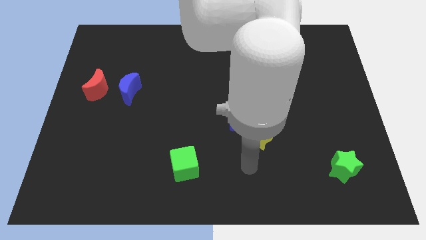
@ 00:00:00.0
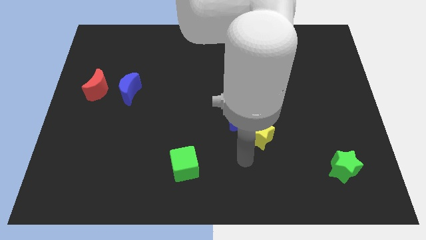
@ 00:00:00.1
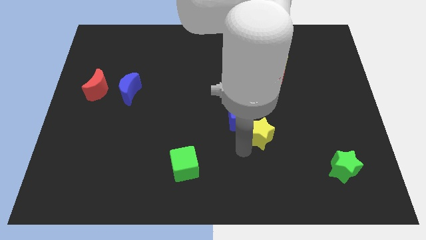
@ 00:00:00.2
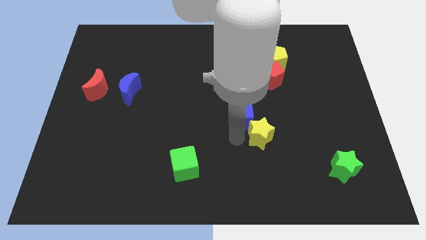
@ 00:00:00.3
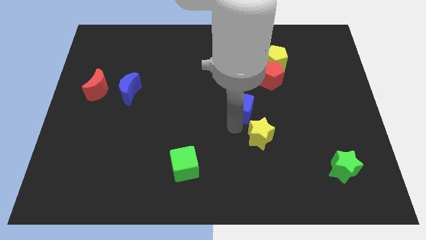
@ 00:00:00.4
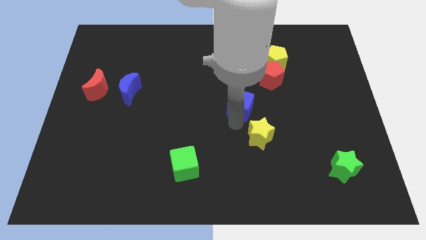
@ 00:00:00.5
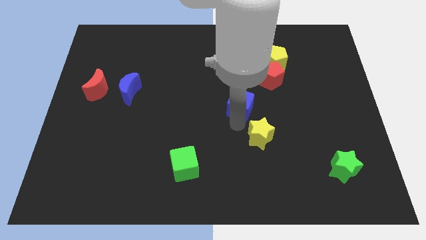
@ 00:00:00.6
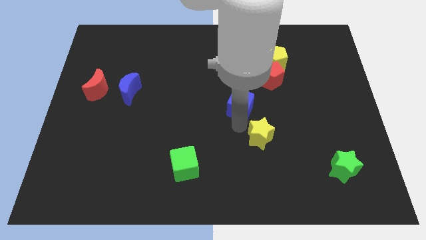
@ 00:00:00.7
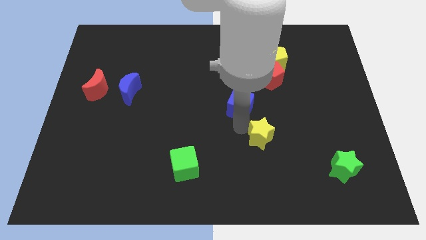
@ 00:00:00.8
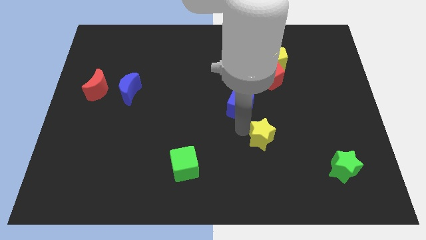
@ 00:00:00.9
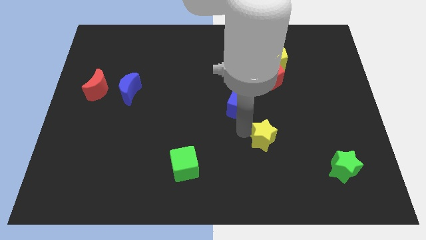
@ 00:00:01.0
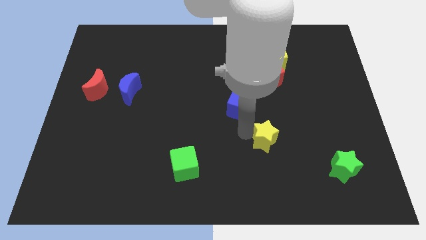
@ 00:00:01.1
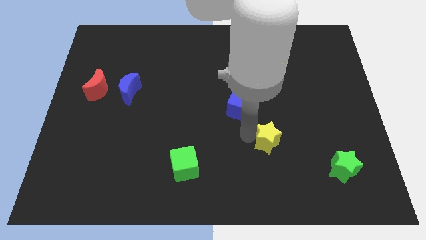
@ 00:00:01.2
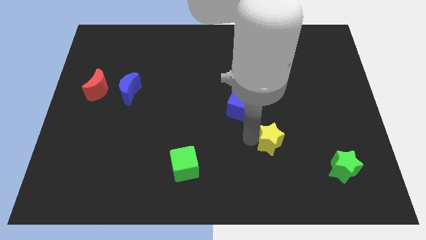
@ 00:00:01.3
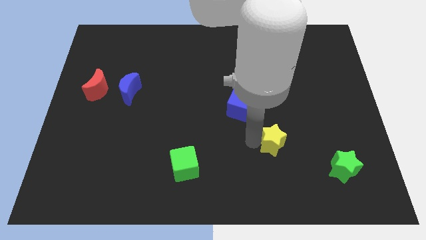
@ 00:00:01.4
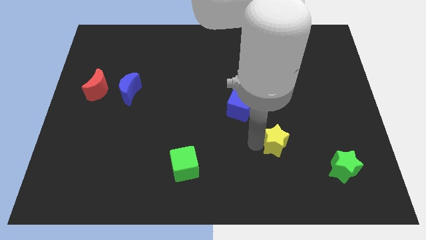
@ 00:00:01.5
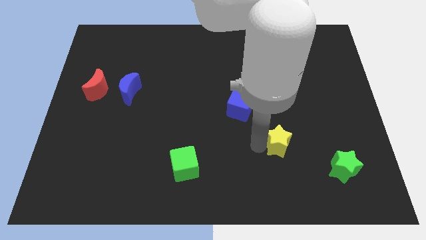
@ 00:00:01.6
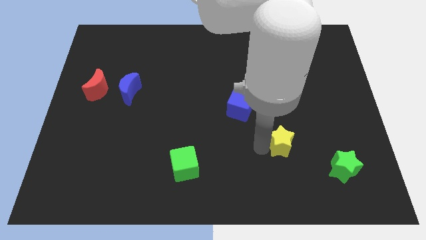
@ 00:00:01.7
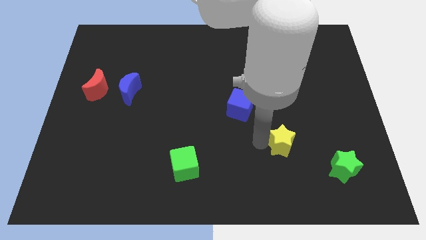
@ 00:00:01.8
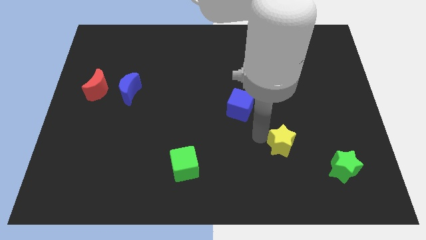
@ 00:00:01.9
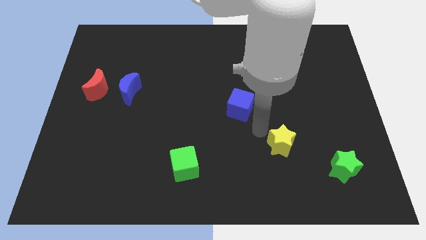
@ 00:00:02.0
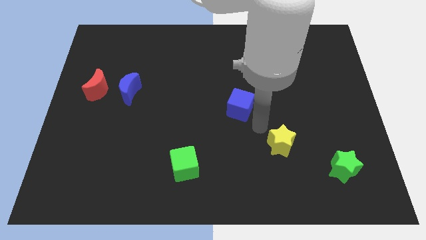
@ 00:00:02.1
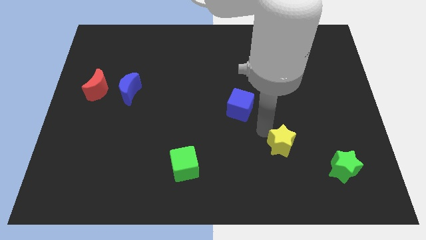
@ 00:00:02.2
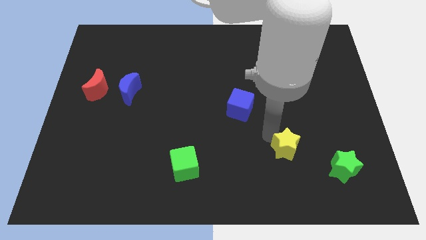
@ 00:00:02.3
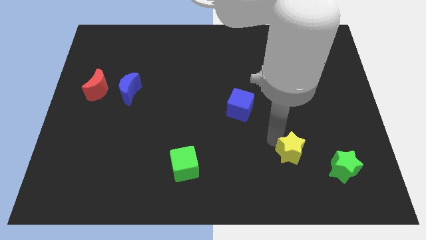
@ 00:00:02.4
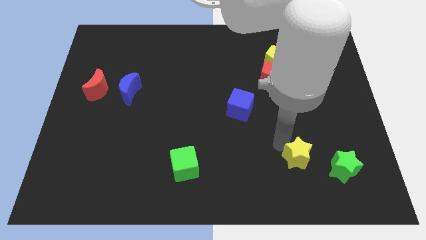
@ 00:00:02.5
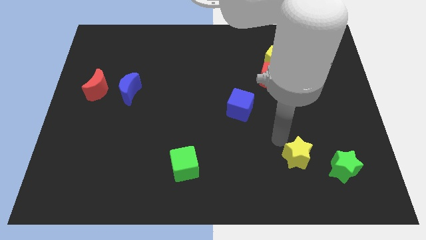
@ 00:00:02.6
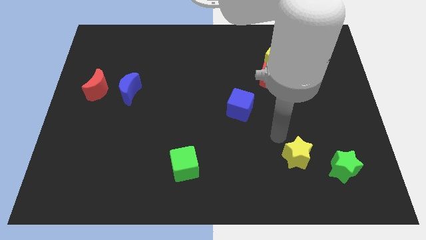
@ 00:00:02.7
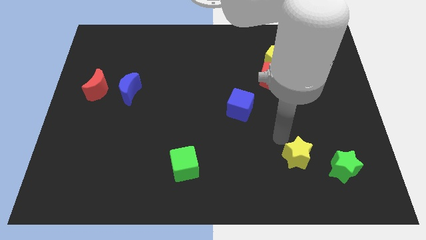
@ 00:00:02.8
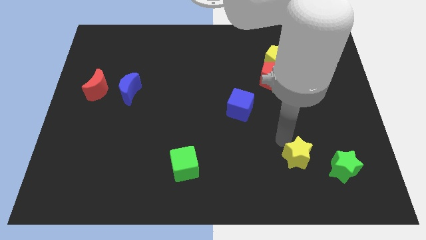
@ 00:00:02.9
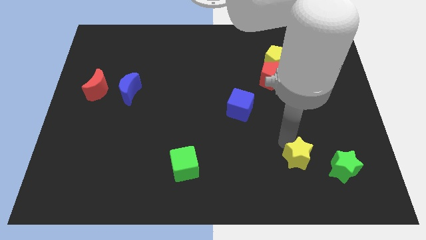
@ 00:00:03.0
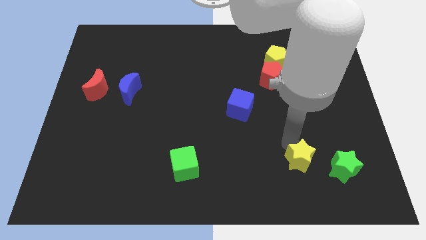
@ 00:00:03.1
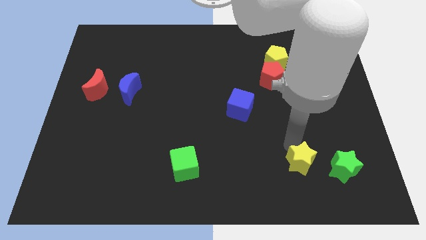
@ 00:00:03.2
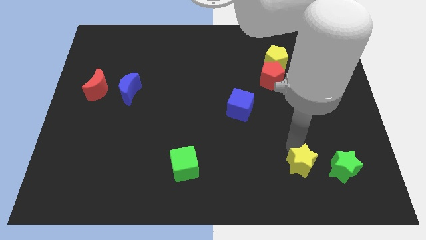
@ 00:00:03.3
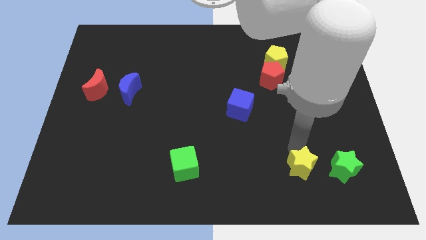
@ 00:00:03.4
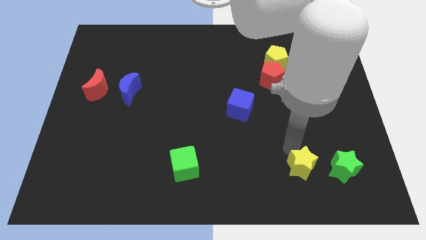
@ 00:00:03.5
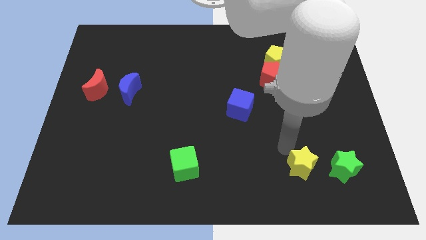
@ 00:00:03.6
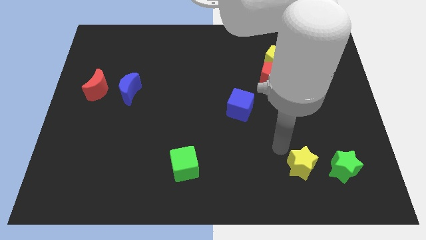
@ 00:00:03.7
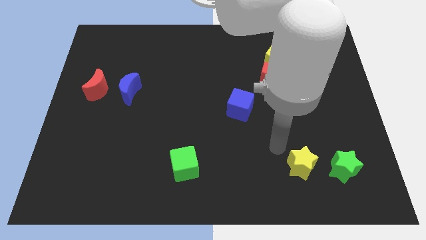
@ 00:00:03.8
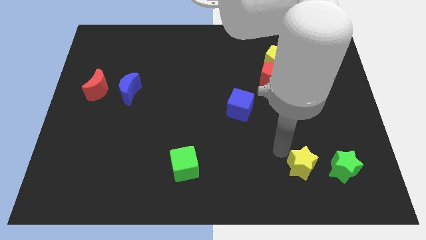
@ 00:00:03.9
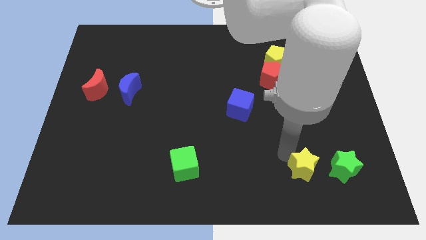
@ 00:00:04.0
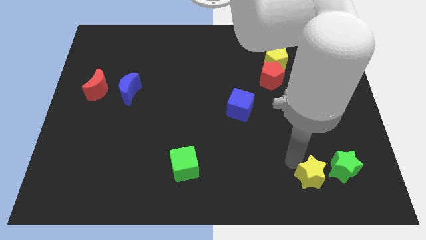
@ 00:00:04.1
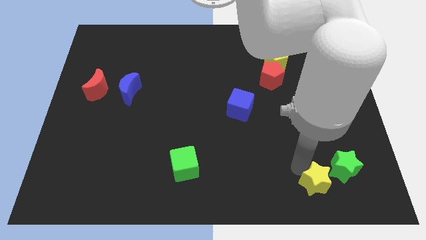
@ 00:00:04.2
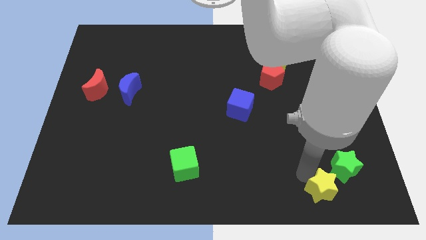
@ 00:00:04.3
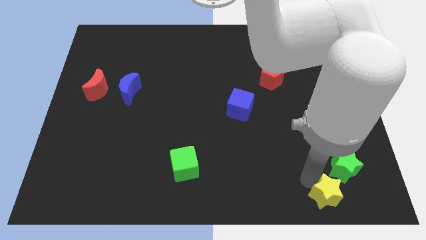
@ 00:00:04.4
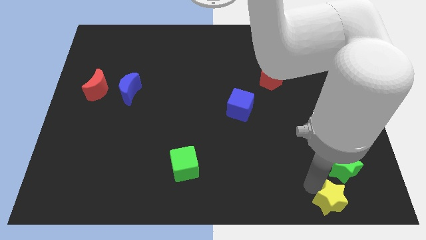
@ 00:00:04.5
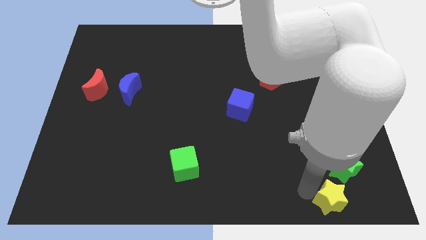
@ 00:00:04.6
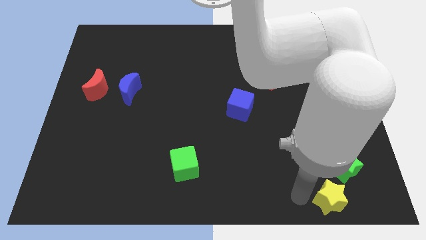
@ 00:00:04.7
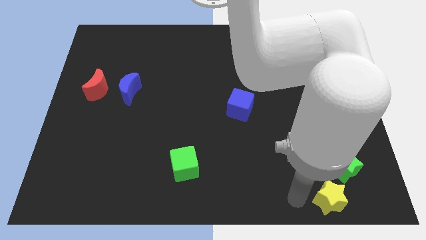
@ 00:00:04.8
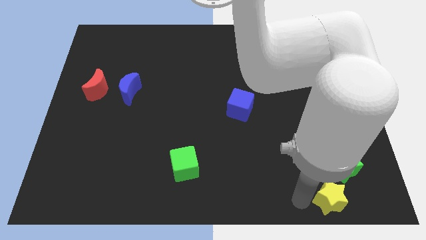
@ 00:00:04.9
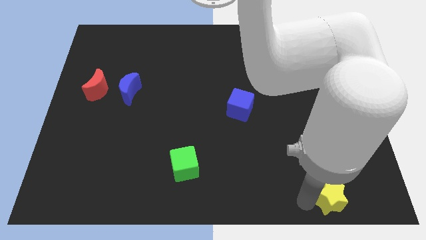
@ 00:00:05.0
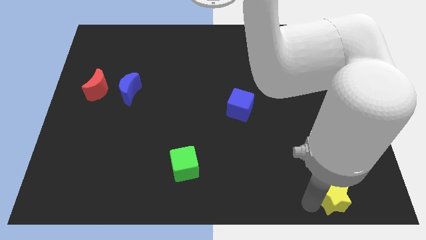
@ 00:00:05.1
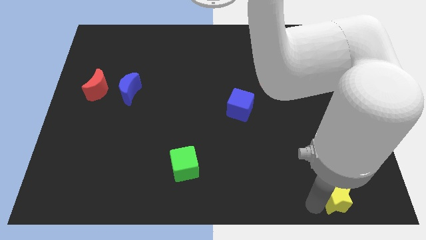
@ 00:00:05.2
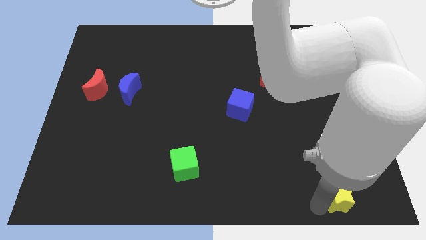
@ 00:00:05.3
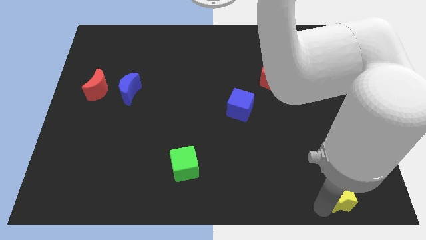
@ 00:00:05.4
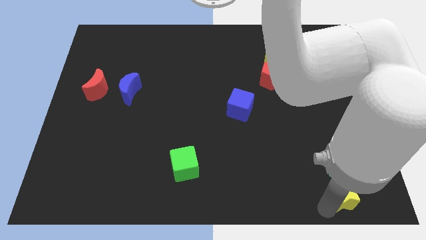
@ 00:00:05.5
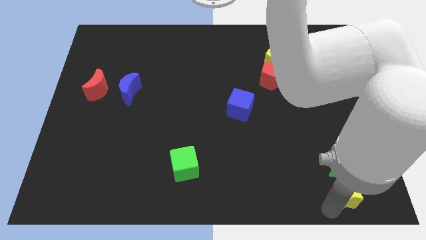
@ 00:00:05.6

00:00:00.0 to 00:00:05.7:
push the yellow star to the bottom right of the board

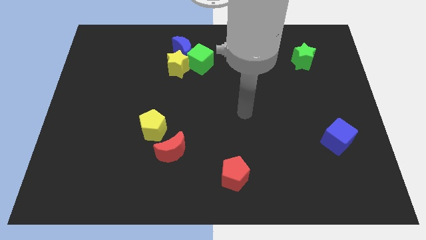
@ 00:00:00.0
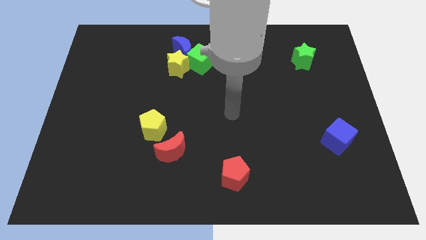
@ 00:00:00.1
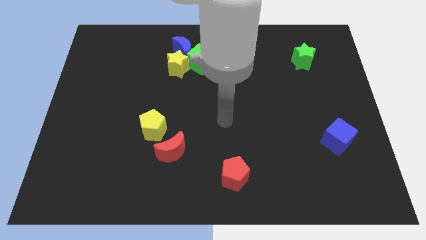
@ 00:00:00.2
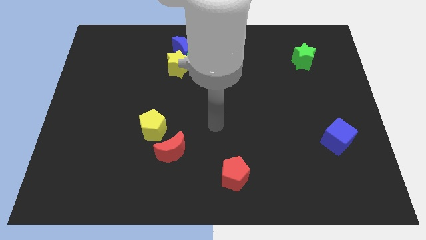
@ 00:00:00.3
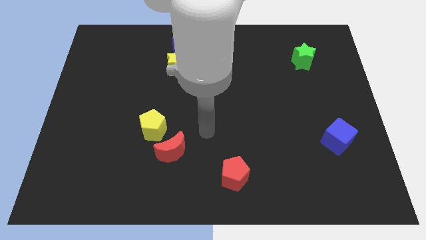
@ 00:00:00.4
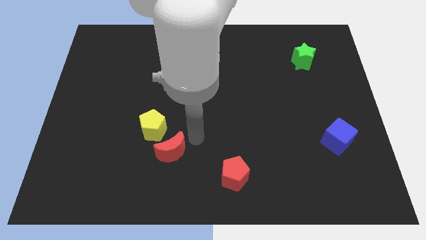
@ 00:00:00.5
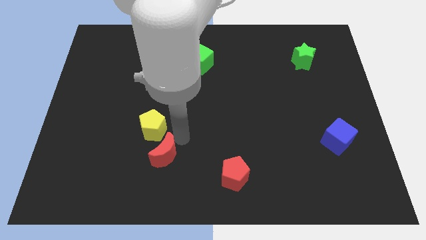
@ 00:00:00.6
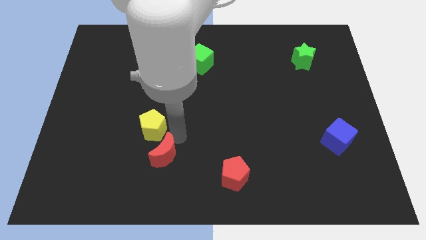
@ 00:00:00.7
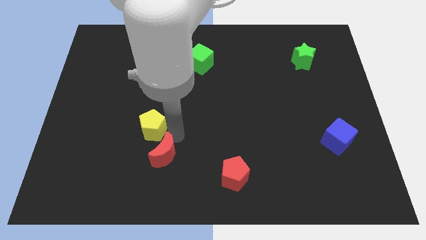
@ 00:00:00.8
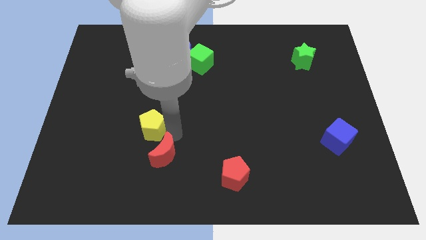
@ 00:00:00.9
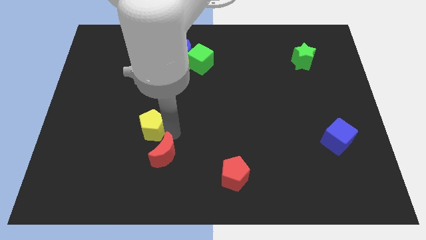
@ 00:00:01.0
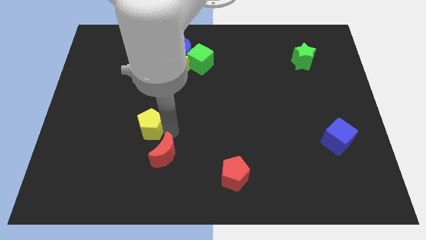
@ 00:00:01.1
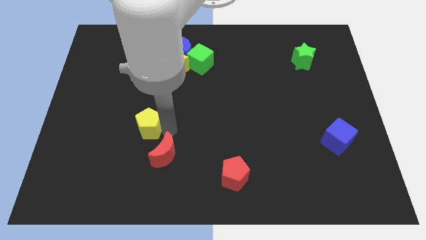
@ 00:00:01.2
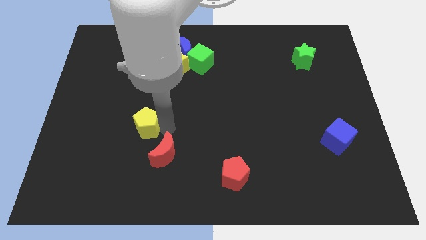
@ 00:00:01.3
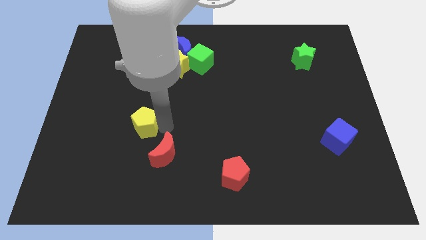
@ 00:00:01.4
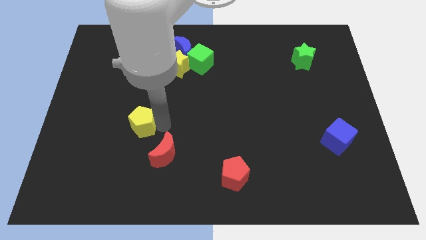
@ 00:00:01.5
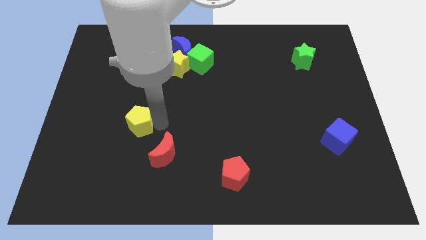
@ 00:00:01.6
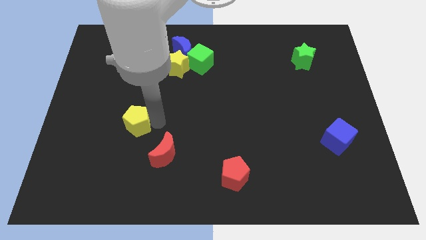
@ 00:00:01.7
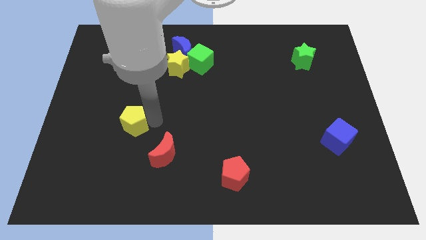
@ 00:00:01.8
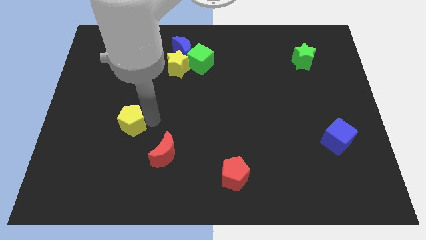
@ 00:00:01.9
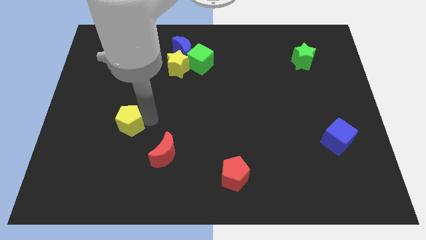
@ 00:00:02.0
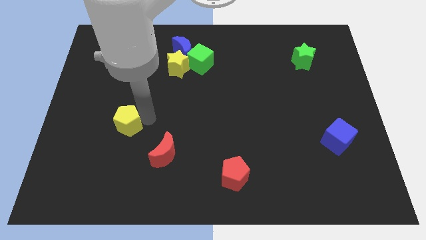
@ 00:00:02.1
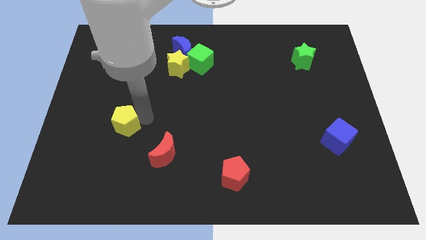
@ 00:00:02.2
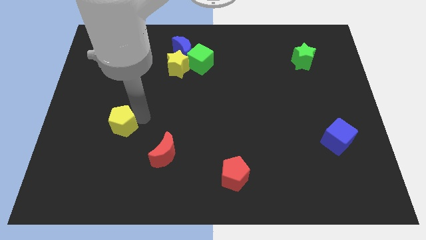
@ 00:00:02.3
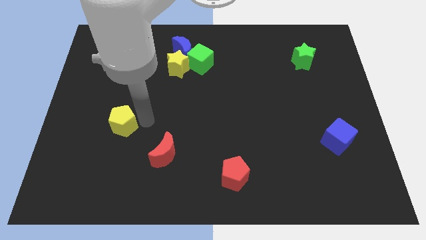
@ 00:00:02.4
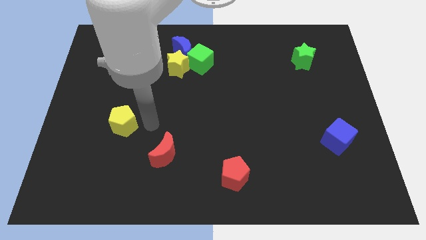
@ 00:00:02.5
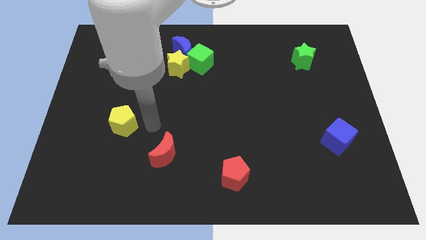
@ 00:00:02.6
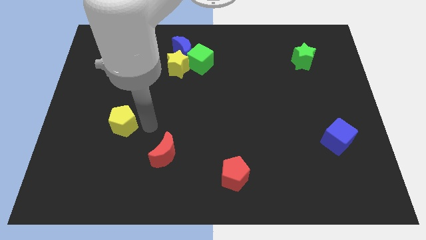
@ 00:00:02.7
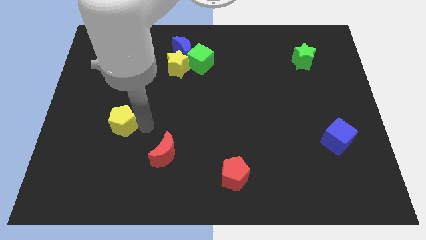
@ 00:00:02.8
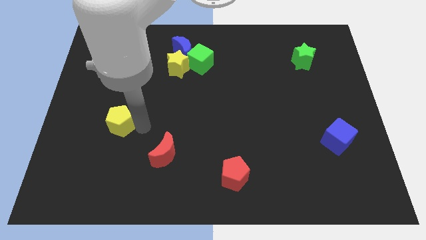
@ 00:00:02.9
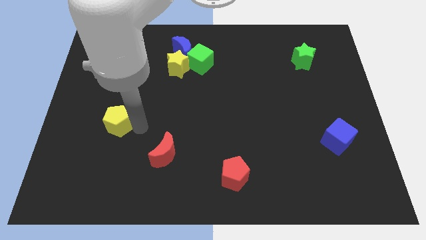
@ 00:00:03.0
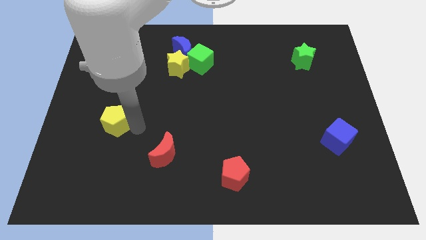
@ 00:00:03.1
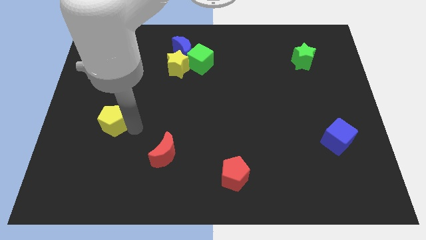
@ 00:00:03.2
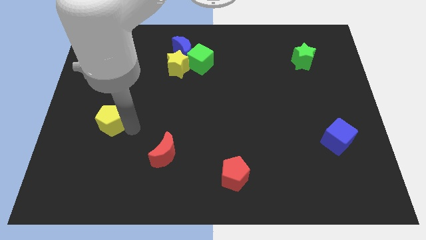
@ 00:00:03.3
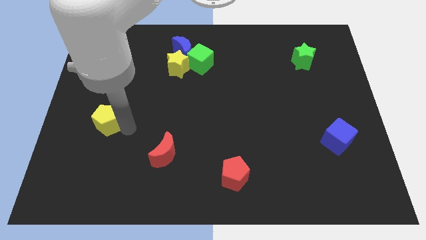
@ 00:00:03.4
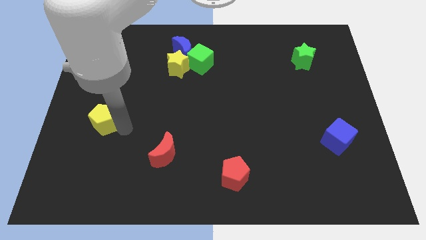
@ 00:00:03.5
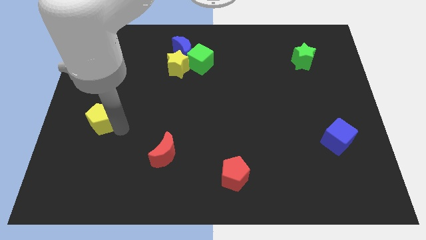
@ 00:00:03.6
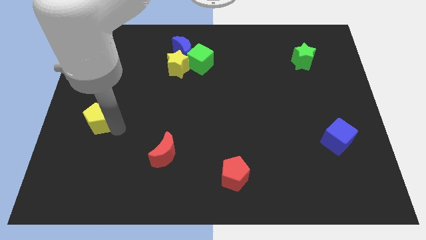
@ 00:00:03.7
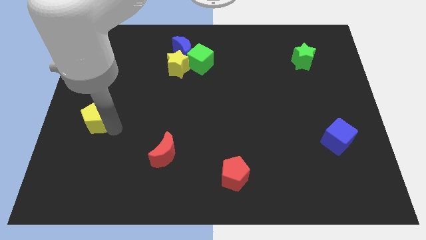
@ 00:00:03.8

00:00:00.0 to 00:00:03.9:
slide the yellow pentagon to the left side
